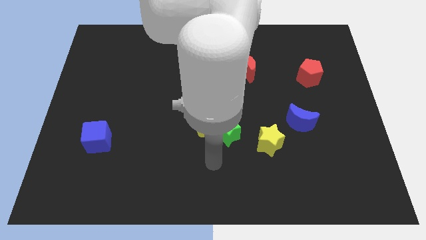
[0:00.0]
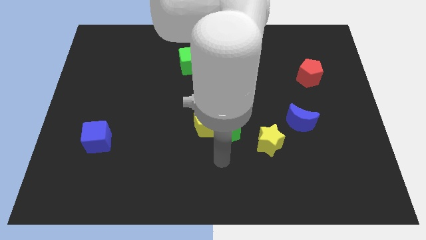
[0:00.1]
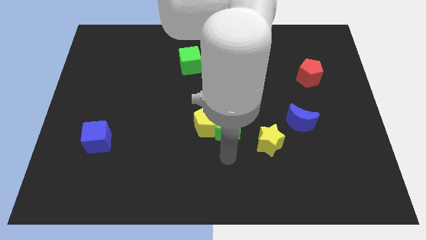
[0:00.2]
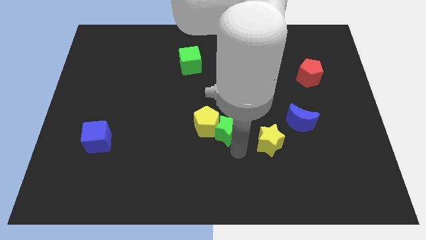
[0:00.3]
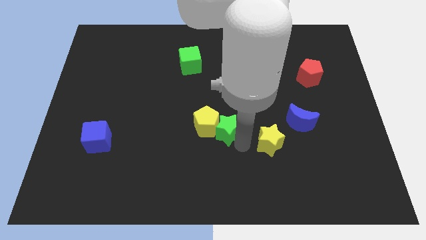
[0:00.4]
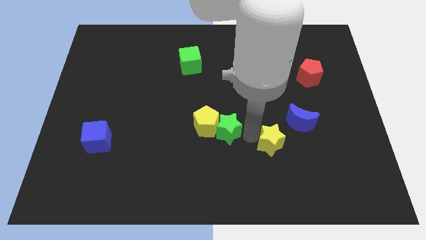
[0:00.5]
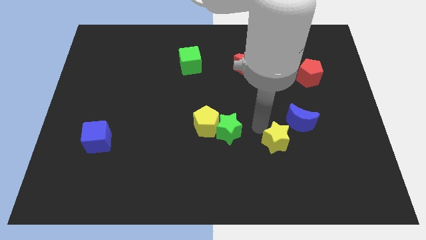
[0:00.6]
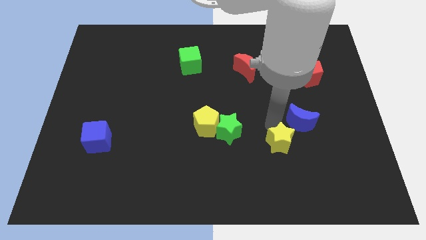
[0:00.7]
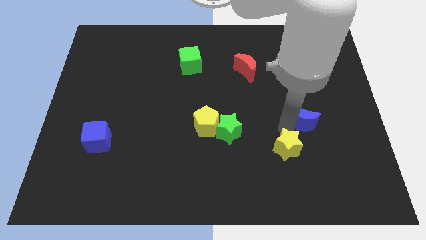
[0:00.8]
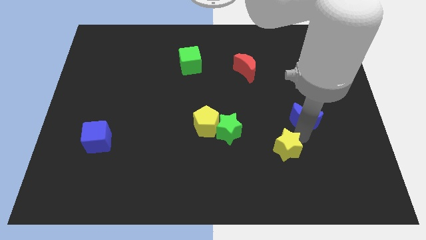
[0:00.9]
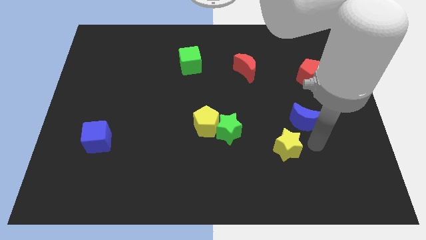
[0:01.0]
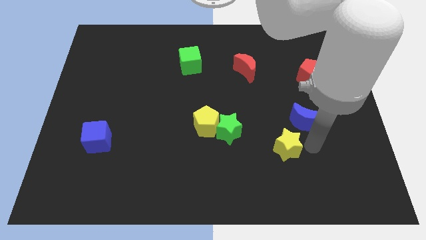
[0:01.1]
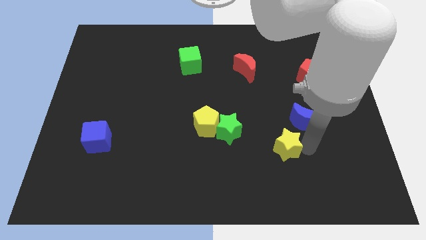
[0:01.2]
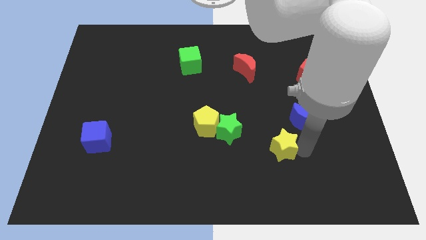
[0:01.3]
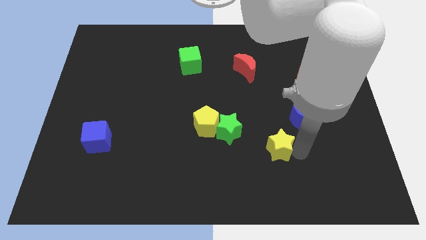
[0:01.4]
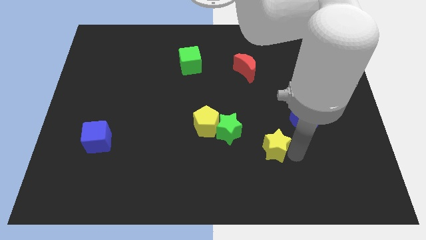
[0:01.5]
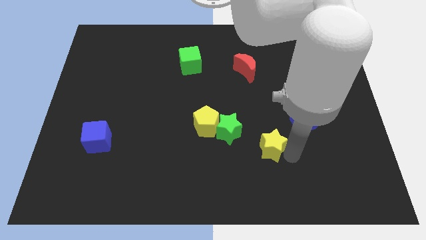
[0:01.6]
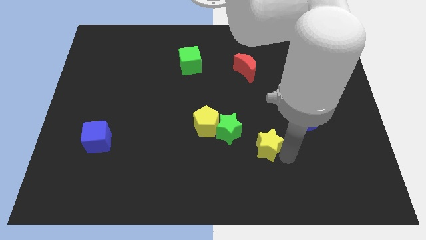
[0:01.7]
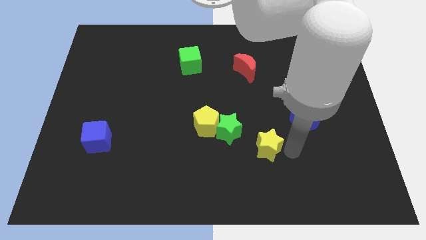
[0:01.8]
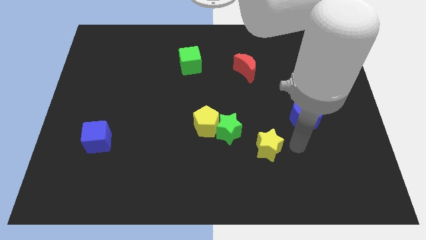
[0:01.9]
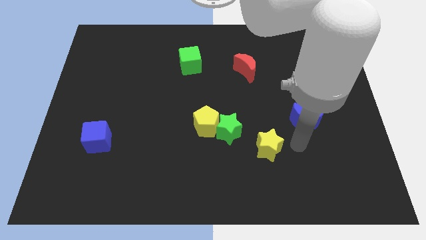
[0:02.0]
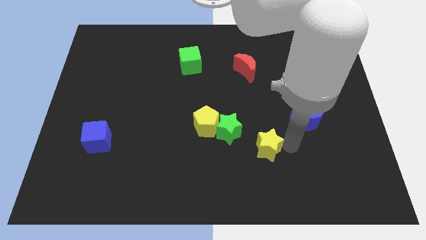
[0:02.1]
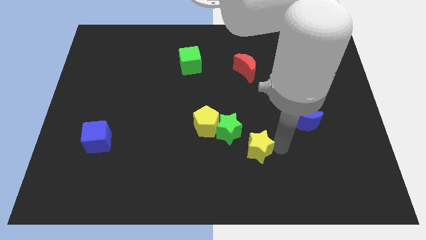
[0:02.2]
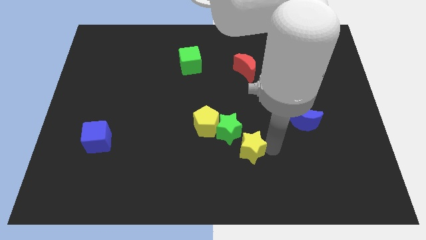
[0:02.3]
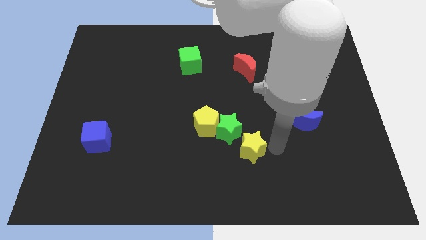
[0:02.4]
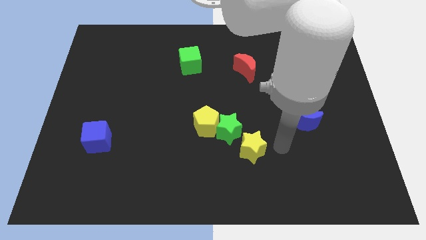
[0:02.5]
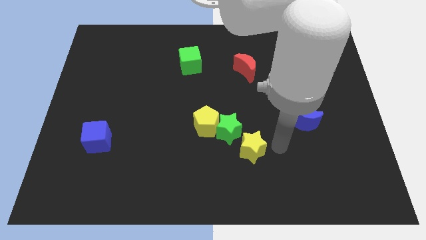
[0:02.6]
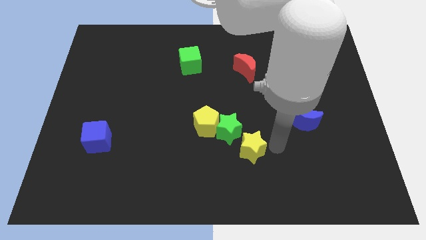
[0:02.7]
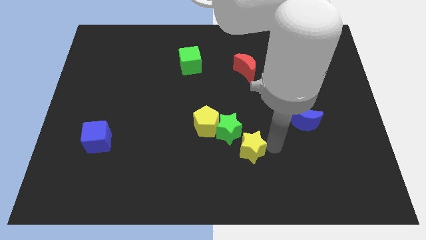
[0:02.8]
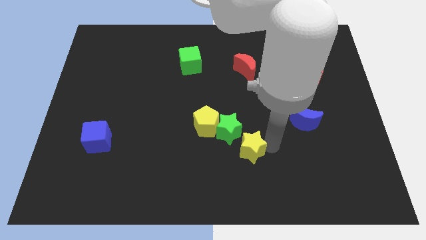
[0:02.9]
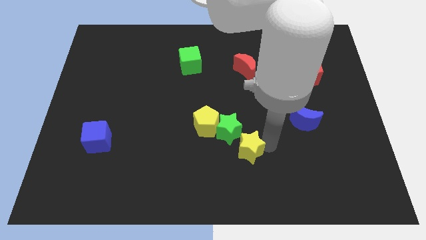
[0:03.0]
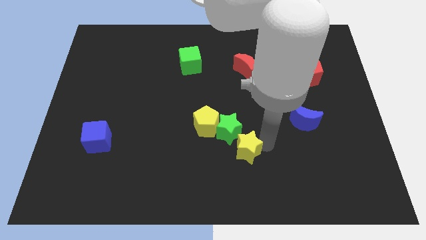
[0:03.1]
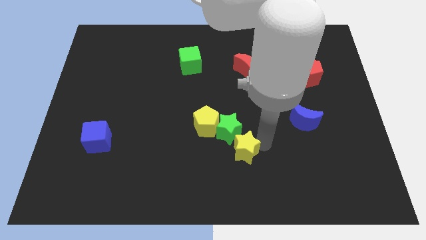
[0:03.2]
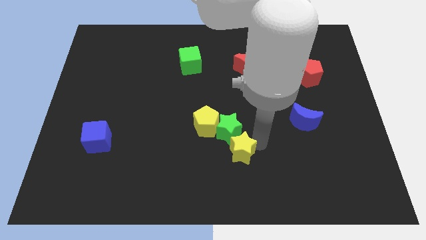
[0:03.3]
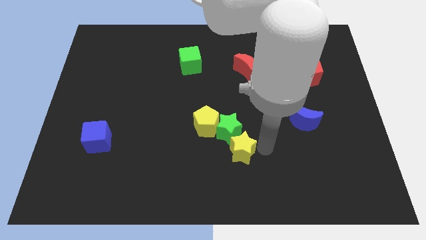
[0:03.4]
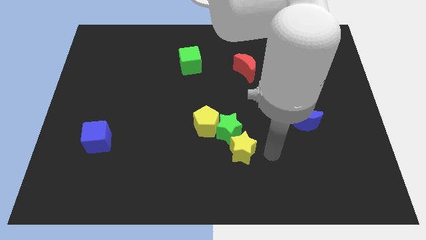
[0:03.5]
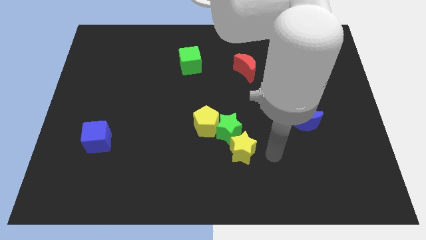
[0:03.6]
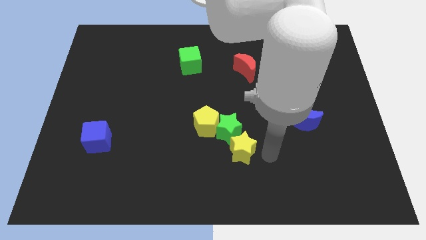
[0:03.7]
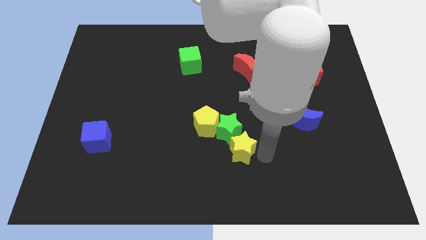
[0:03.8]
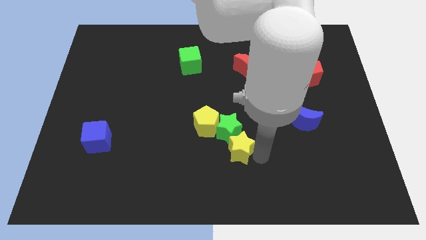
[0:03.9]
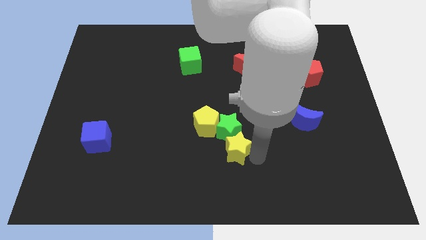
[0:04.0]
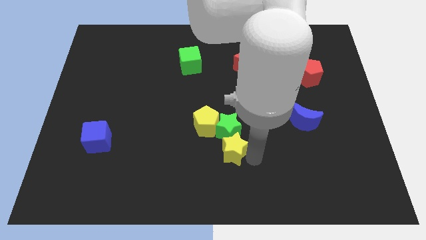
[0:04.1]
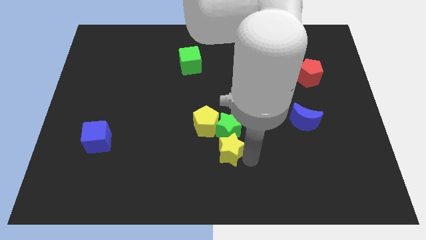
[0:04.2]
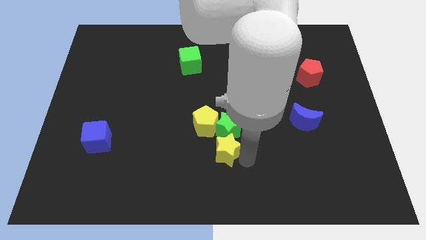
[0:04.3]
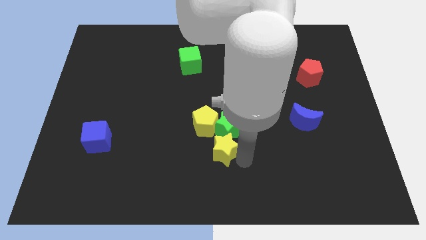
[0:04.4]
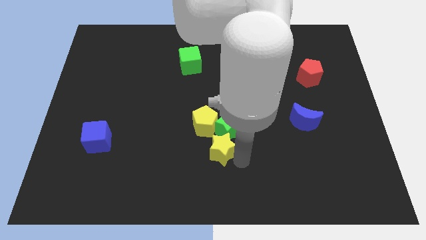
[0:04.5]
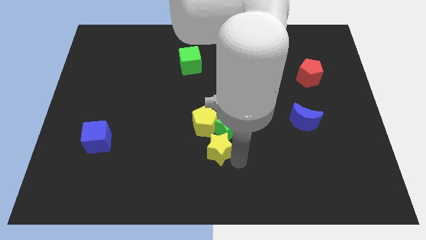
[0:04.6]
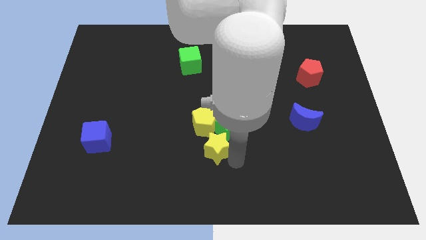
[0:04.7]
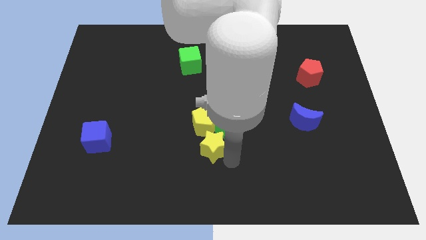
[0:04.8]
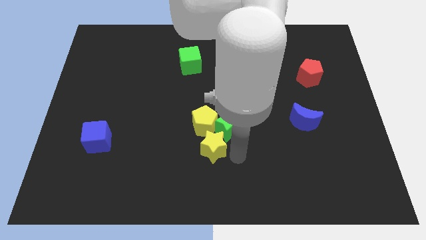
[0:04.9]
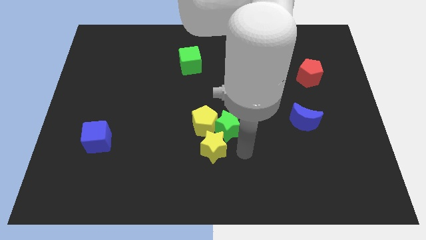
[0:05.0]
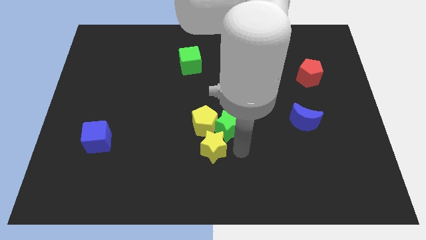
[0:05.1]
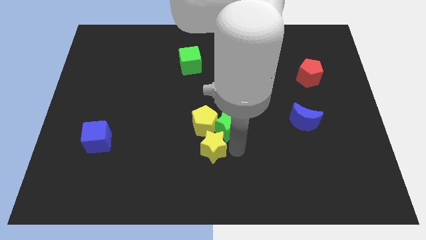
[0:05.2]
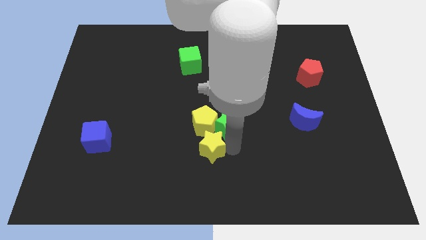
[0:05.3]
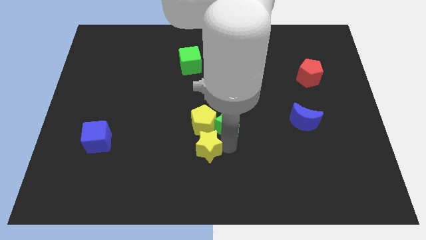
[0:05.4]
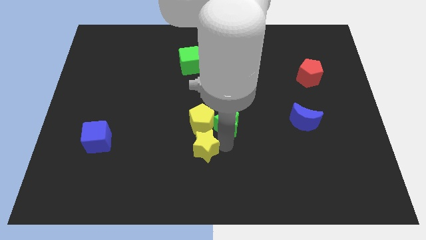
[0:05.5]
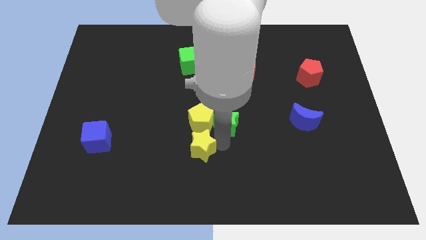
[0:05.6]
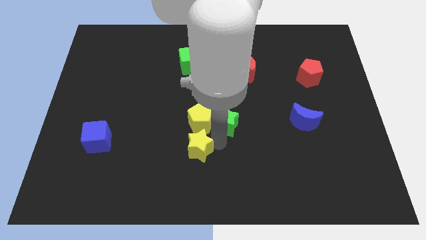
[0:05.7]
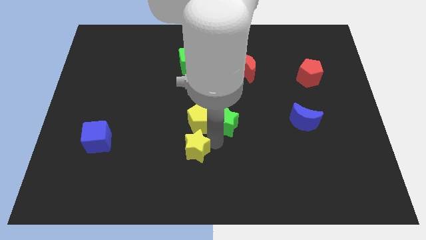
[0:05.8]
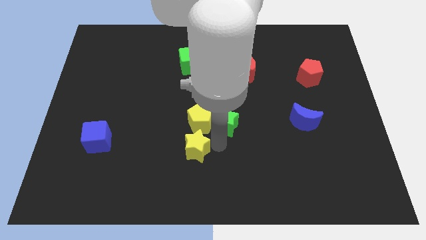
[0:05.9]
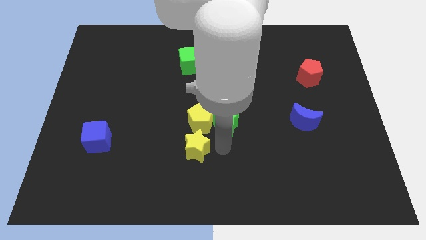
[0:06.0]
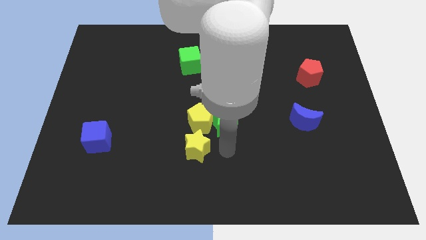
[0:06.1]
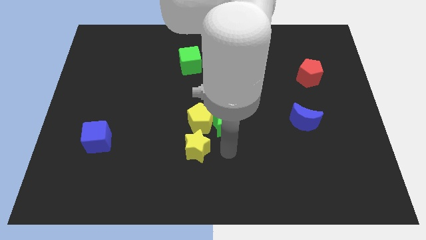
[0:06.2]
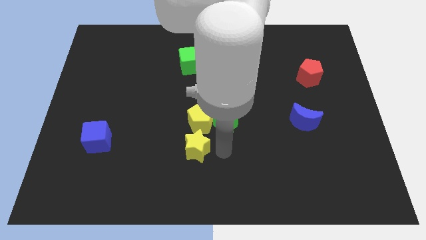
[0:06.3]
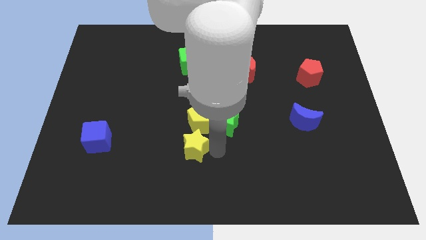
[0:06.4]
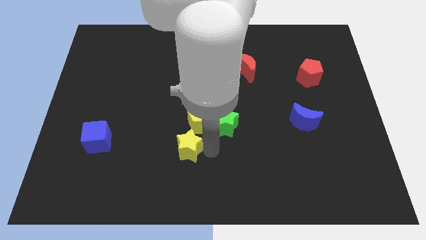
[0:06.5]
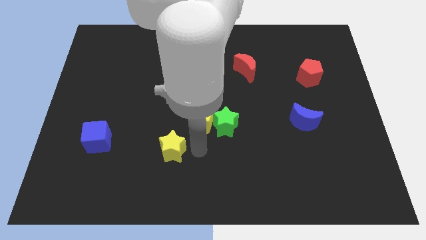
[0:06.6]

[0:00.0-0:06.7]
move the yellow star left

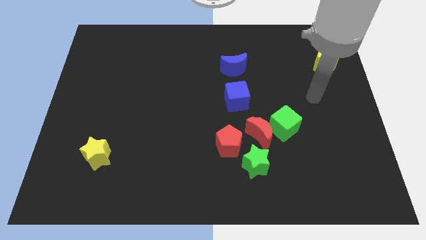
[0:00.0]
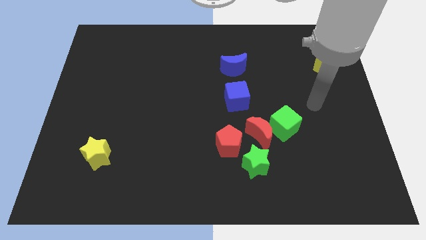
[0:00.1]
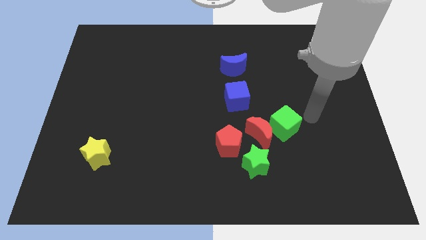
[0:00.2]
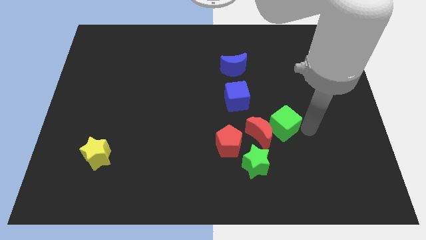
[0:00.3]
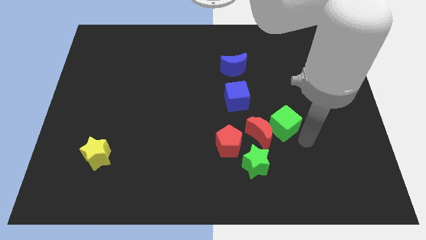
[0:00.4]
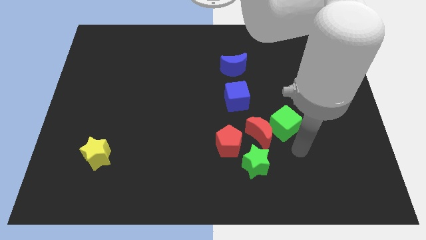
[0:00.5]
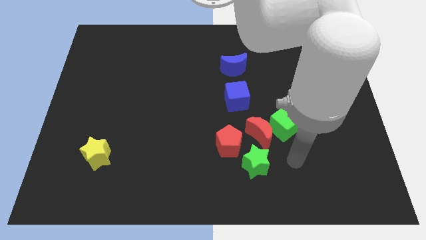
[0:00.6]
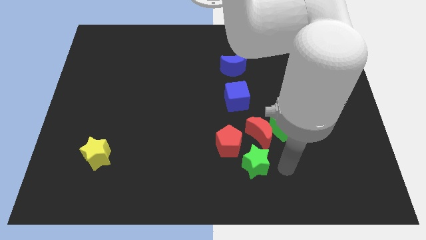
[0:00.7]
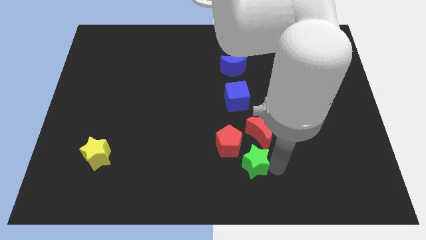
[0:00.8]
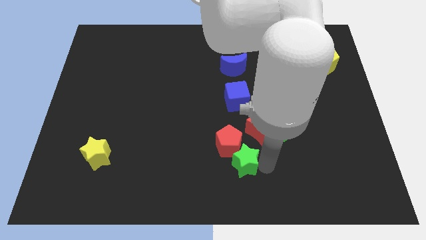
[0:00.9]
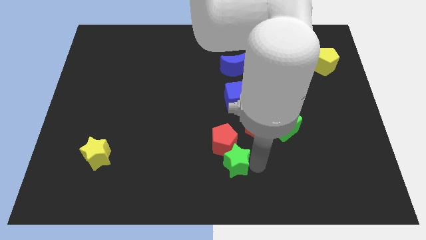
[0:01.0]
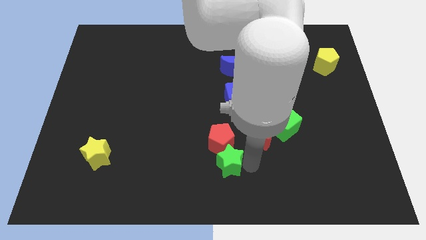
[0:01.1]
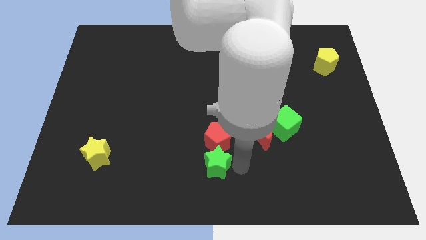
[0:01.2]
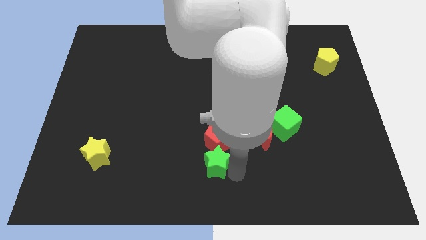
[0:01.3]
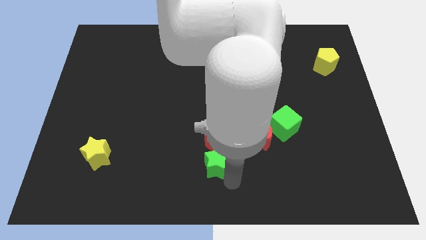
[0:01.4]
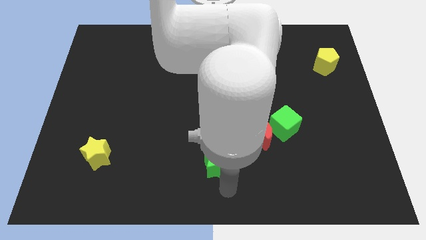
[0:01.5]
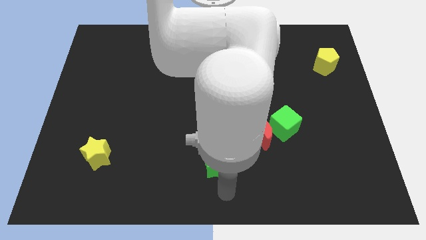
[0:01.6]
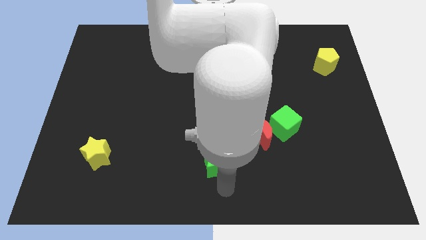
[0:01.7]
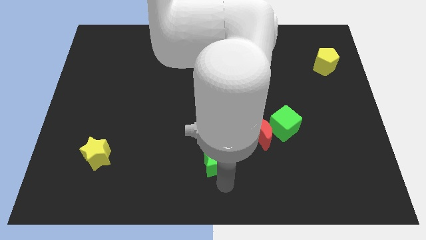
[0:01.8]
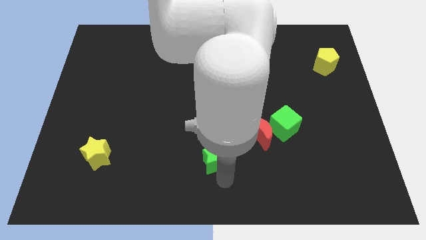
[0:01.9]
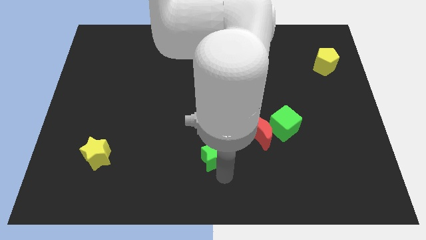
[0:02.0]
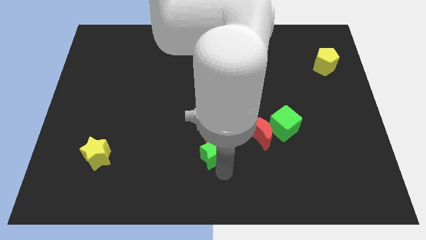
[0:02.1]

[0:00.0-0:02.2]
slide the green star a little up and left diagonally
